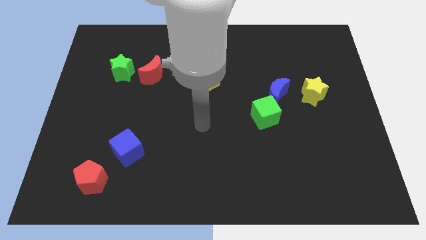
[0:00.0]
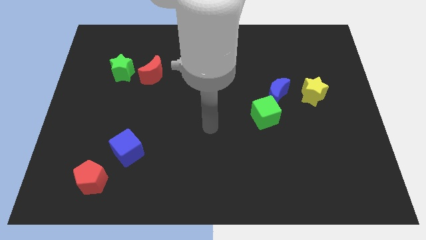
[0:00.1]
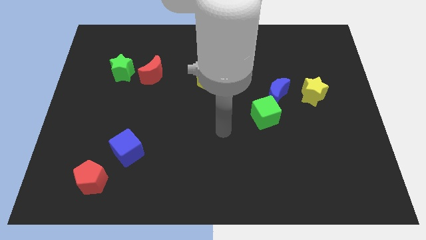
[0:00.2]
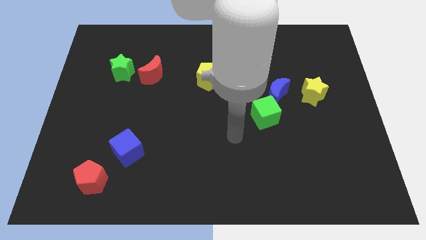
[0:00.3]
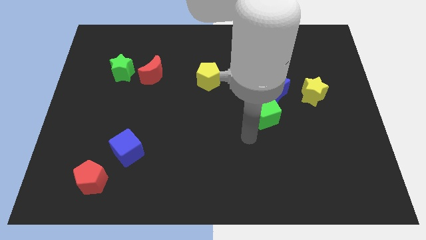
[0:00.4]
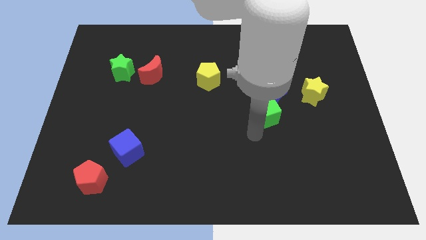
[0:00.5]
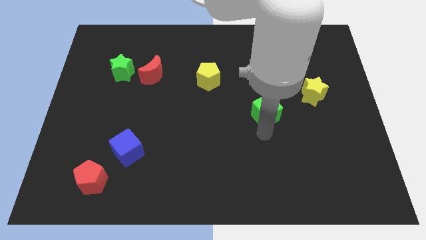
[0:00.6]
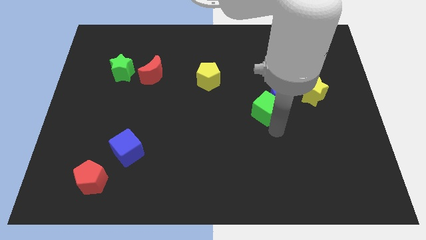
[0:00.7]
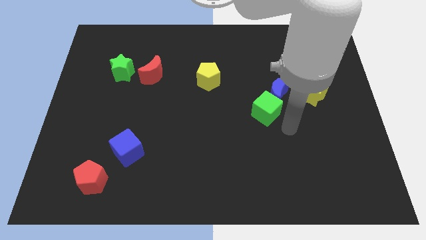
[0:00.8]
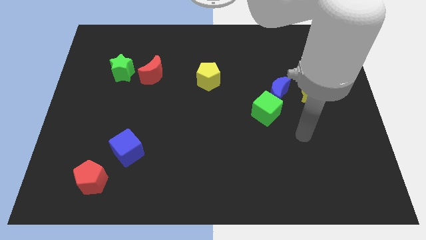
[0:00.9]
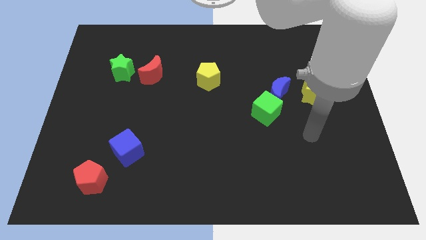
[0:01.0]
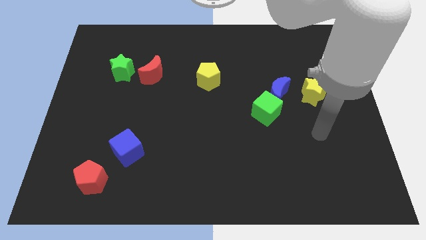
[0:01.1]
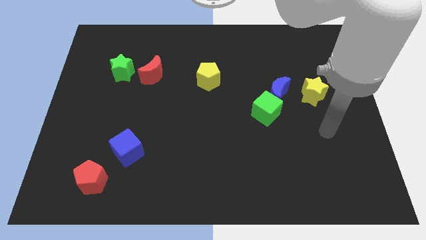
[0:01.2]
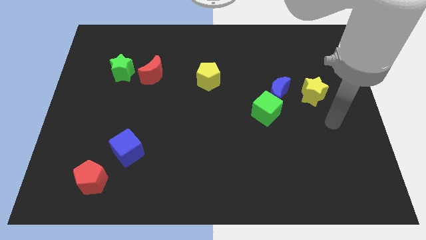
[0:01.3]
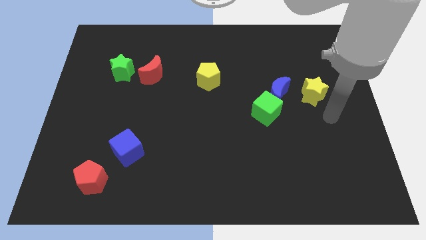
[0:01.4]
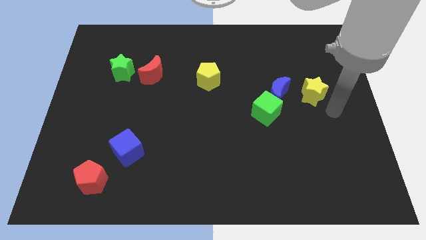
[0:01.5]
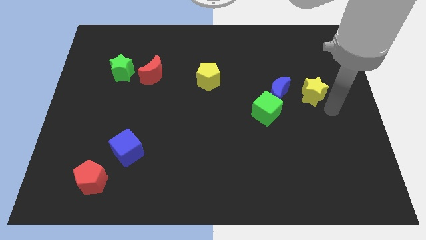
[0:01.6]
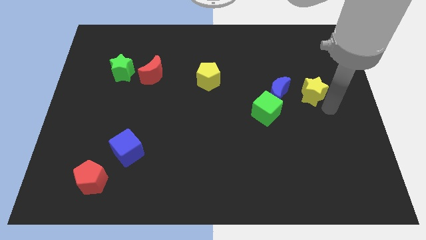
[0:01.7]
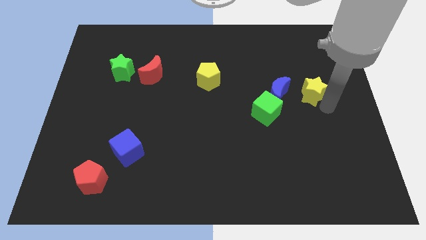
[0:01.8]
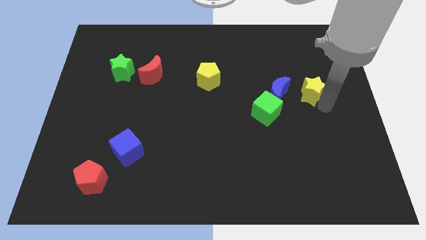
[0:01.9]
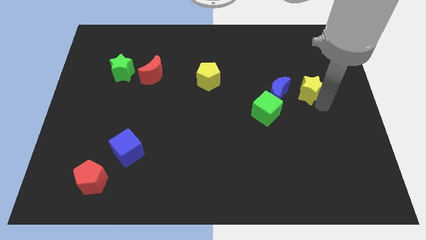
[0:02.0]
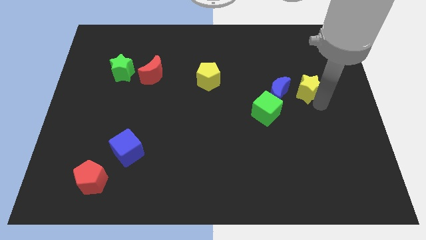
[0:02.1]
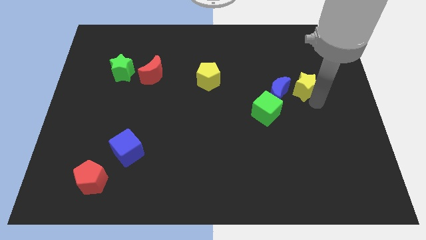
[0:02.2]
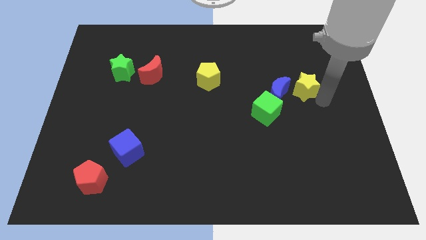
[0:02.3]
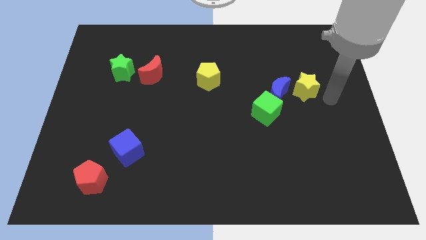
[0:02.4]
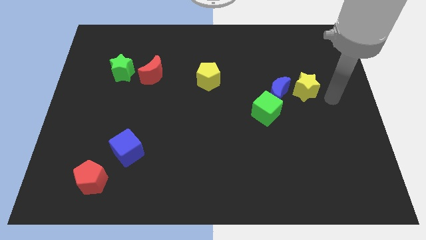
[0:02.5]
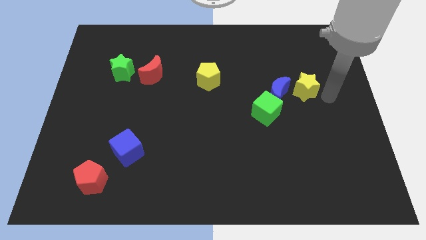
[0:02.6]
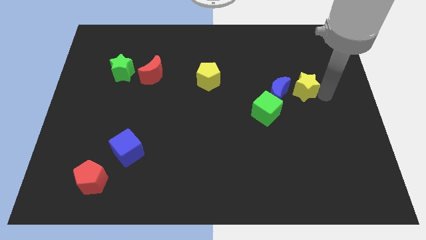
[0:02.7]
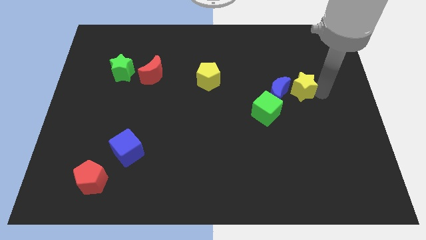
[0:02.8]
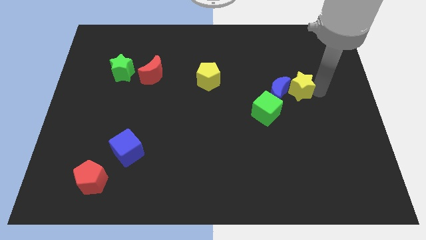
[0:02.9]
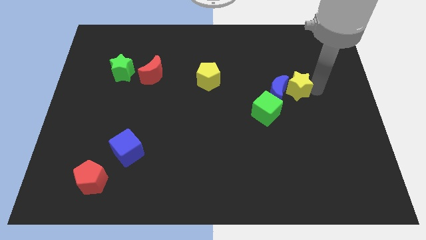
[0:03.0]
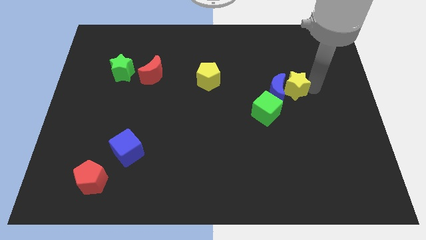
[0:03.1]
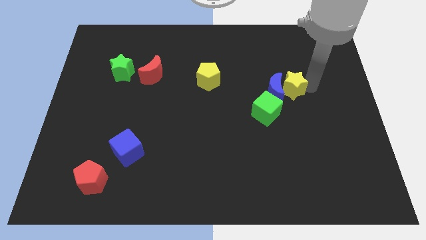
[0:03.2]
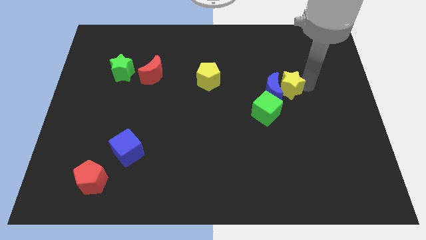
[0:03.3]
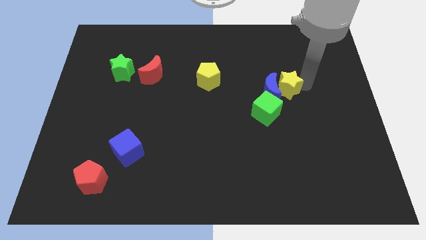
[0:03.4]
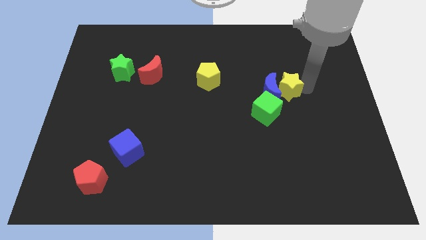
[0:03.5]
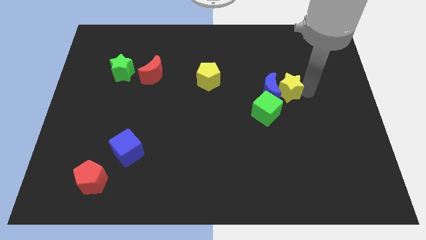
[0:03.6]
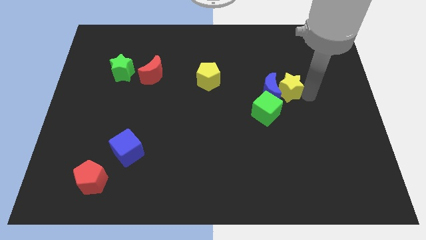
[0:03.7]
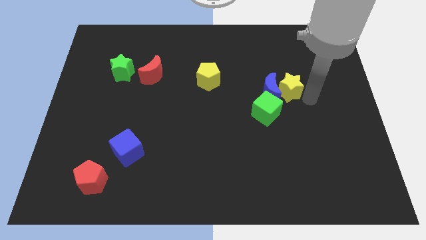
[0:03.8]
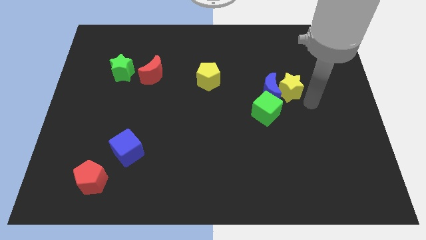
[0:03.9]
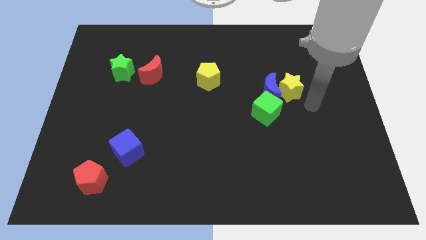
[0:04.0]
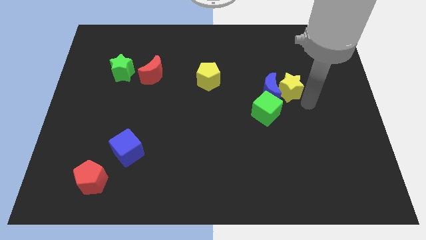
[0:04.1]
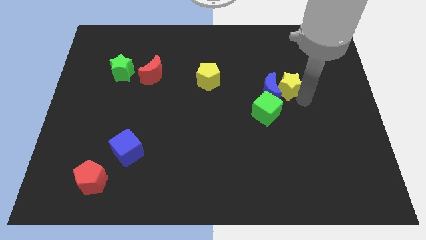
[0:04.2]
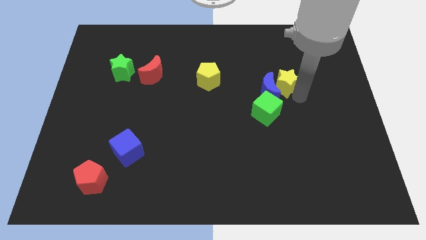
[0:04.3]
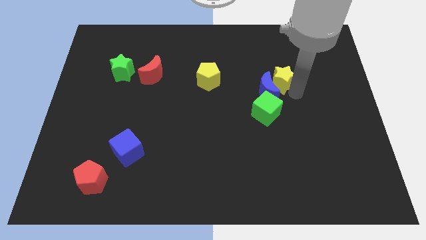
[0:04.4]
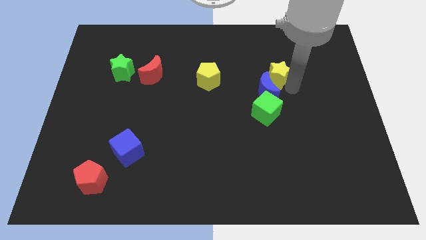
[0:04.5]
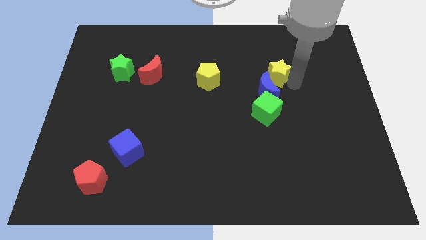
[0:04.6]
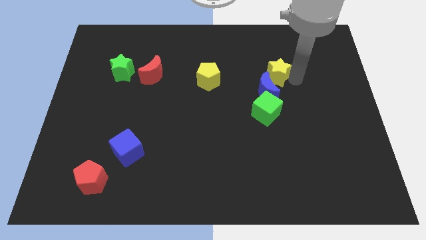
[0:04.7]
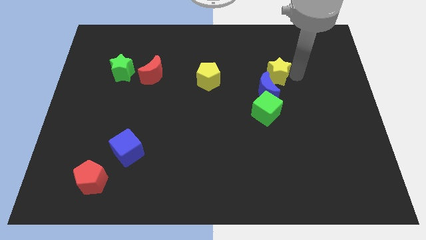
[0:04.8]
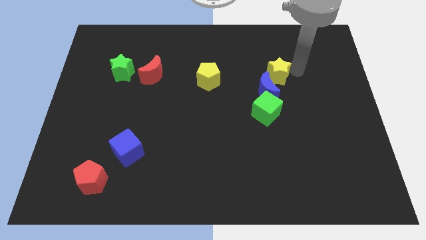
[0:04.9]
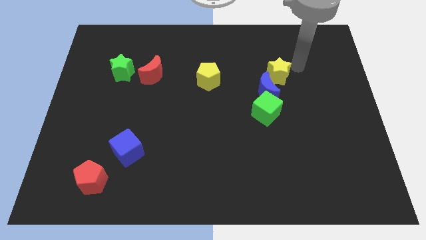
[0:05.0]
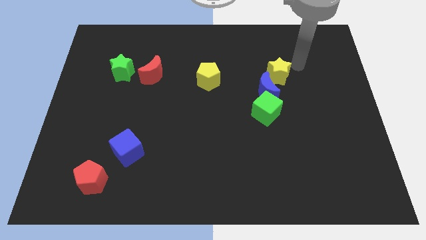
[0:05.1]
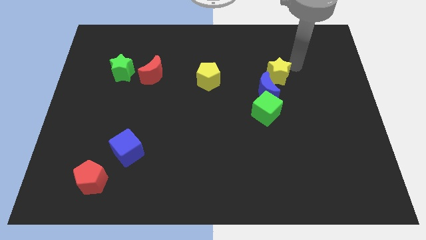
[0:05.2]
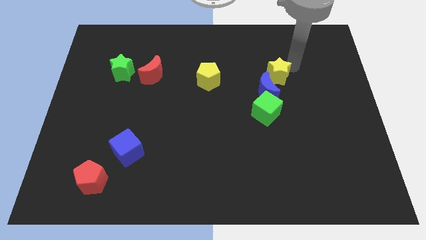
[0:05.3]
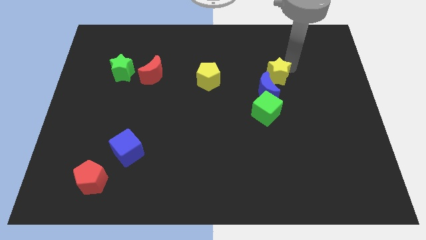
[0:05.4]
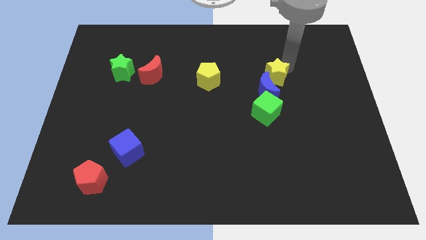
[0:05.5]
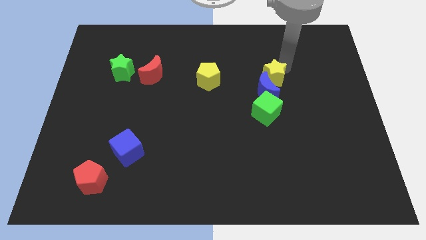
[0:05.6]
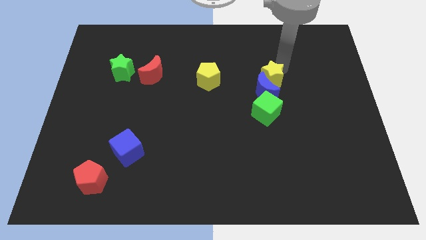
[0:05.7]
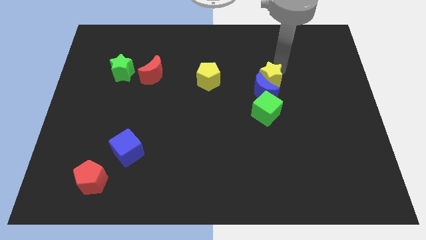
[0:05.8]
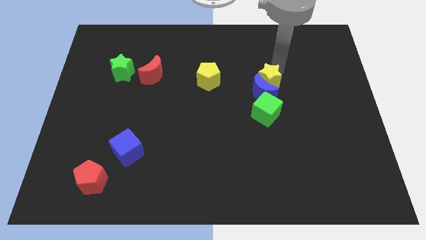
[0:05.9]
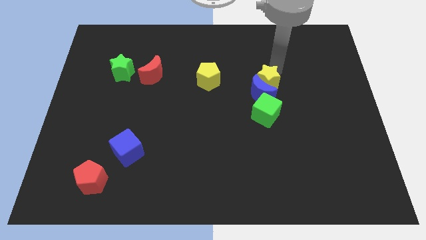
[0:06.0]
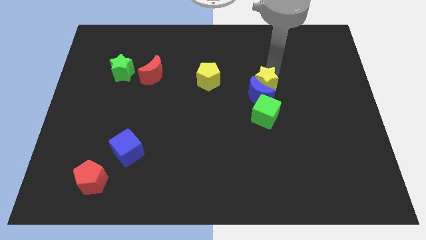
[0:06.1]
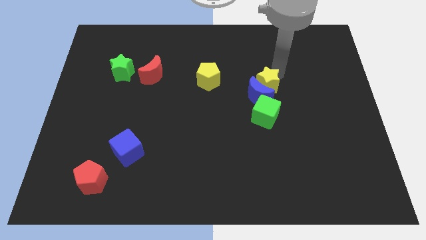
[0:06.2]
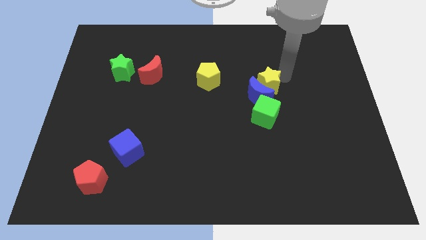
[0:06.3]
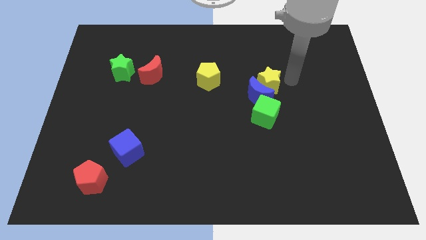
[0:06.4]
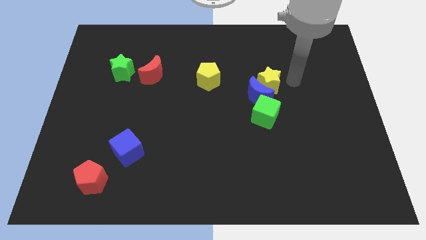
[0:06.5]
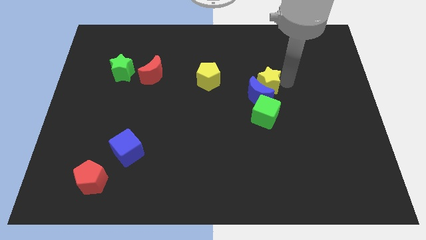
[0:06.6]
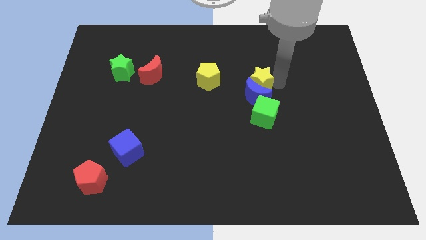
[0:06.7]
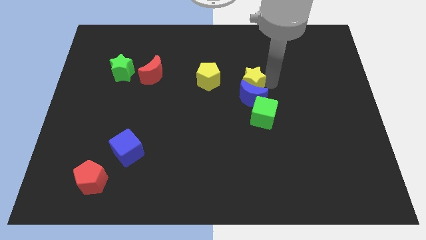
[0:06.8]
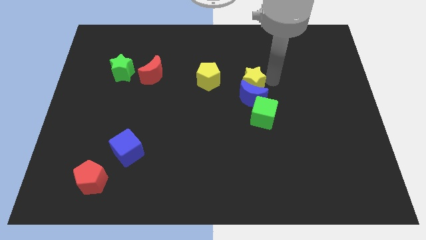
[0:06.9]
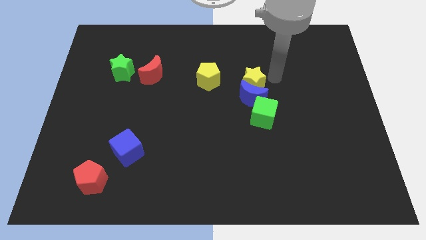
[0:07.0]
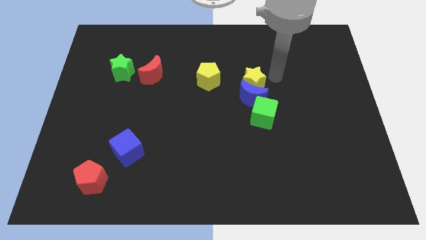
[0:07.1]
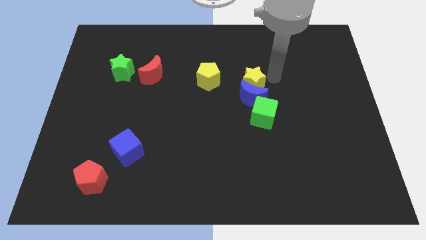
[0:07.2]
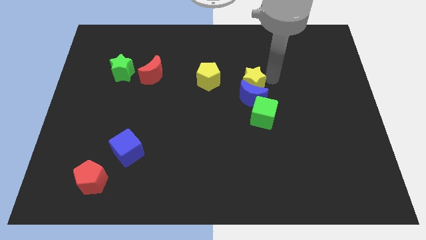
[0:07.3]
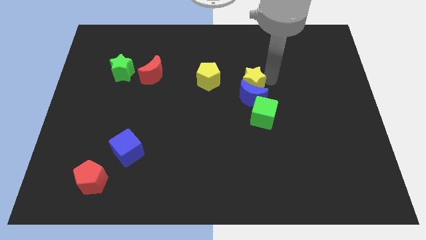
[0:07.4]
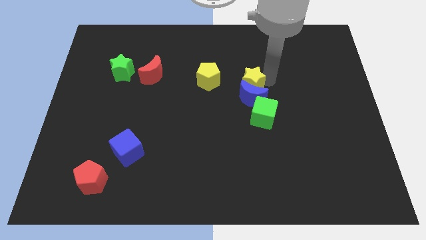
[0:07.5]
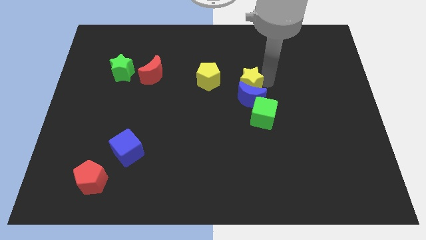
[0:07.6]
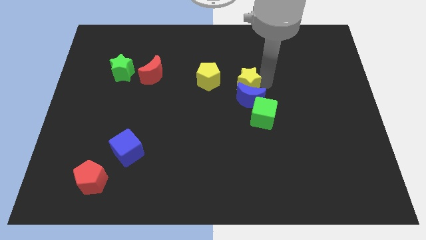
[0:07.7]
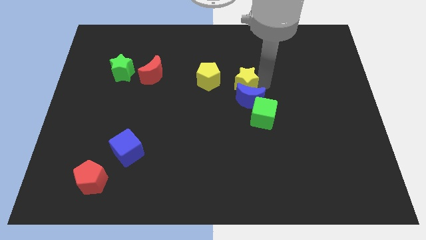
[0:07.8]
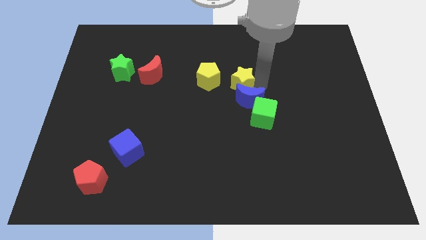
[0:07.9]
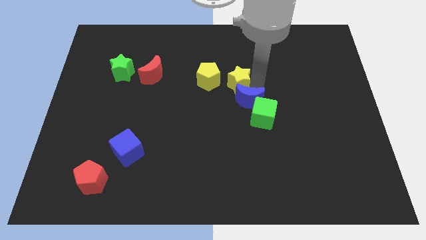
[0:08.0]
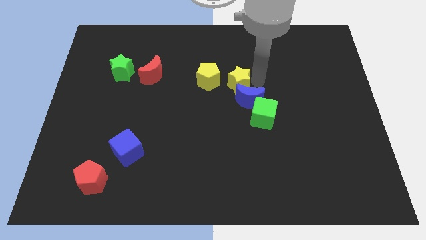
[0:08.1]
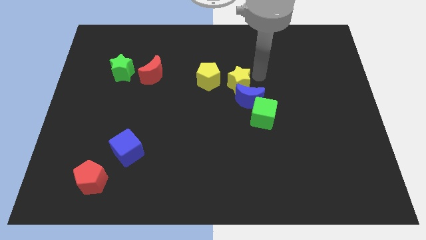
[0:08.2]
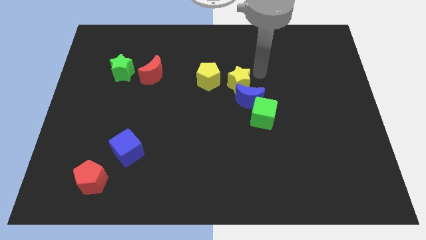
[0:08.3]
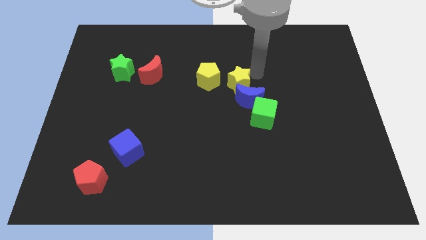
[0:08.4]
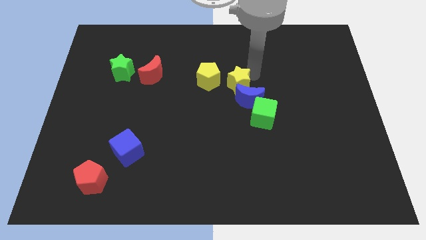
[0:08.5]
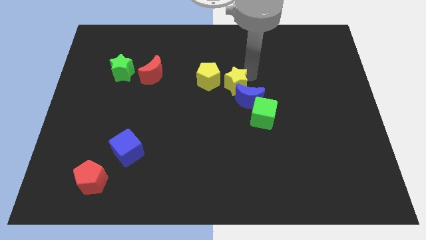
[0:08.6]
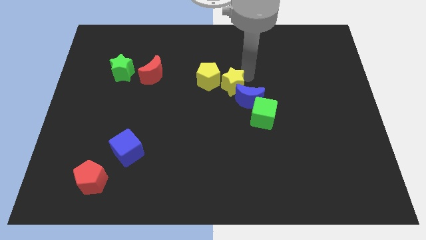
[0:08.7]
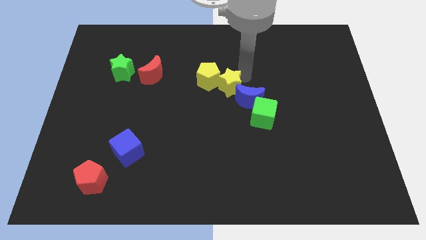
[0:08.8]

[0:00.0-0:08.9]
move the yellow star left
